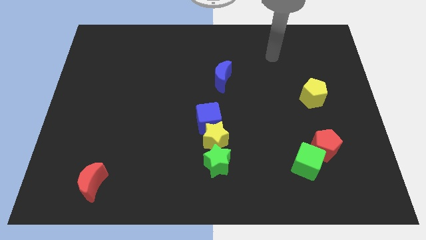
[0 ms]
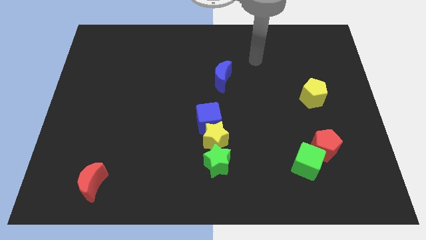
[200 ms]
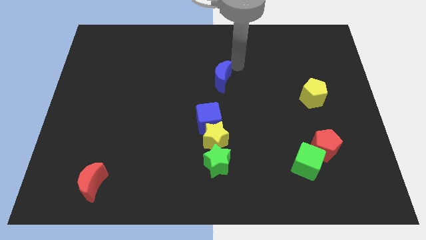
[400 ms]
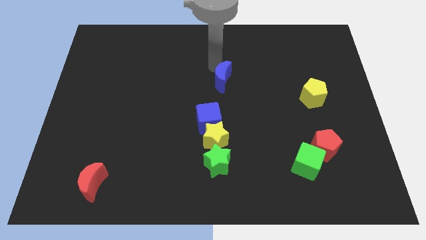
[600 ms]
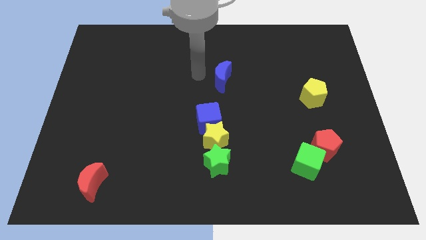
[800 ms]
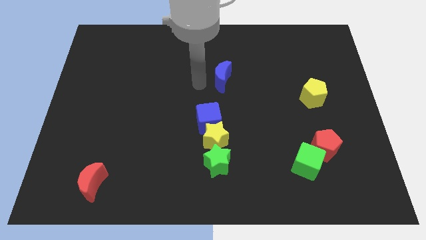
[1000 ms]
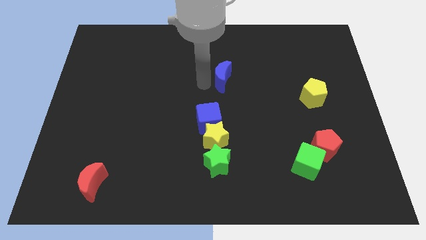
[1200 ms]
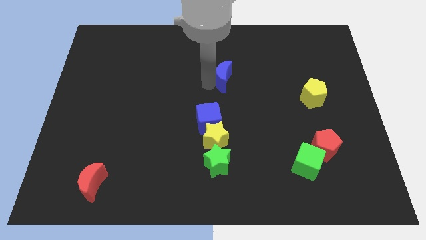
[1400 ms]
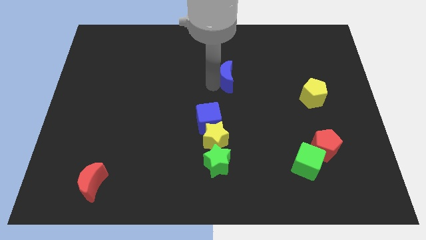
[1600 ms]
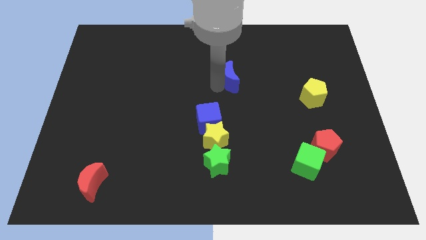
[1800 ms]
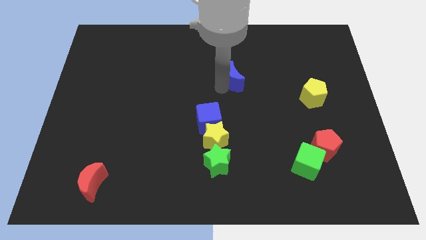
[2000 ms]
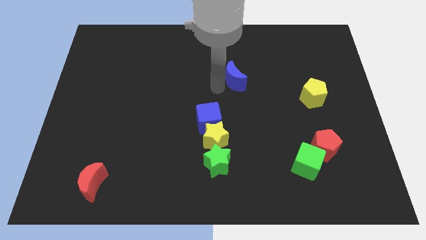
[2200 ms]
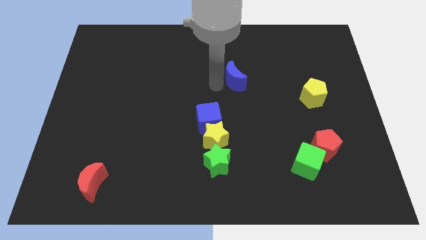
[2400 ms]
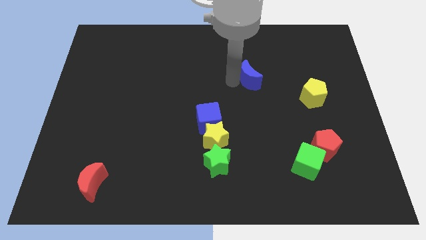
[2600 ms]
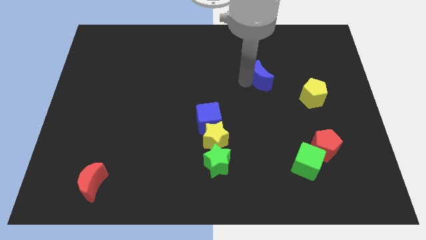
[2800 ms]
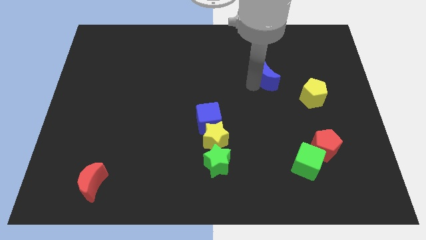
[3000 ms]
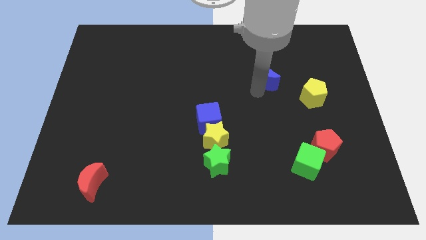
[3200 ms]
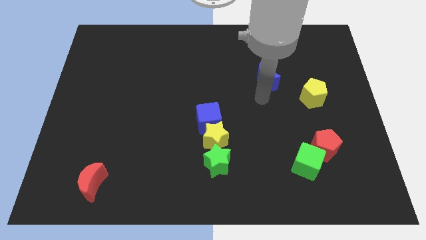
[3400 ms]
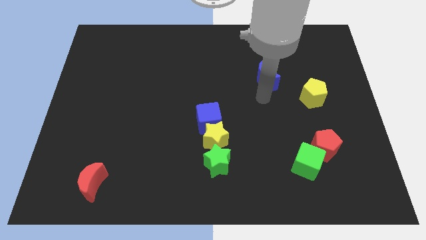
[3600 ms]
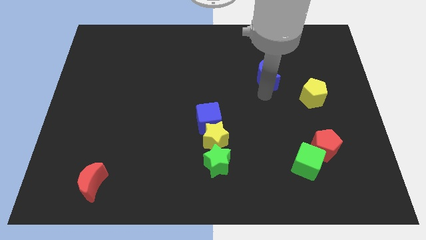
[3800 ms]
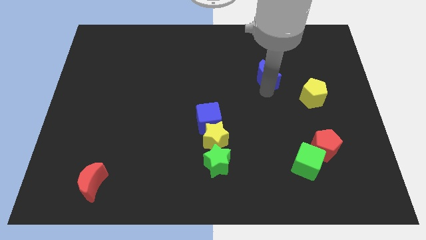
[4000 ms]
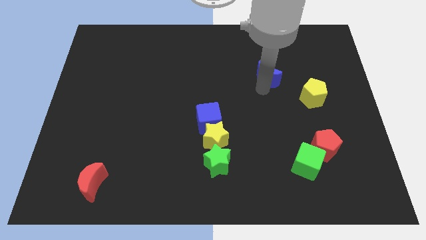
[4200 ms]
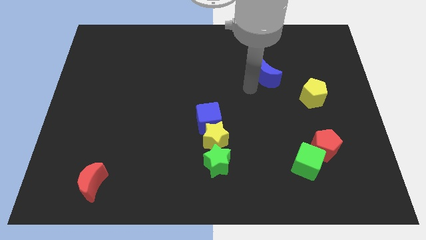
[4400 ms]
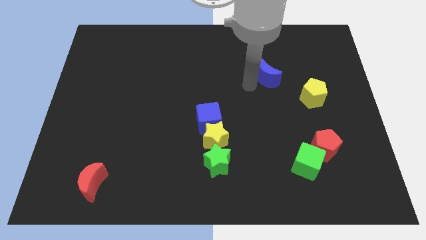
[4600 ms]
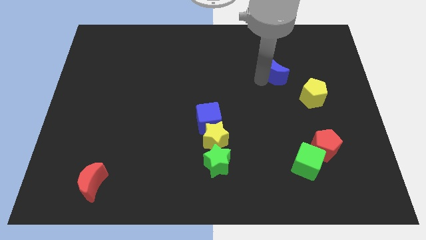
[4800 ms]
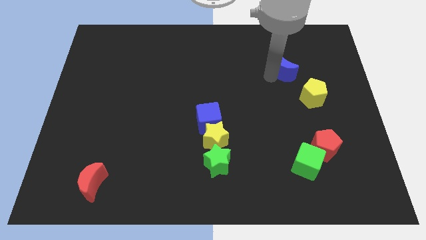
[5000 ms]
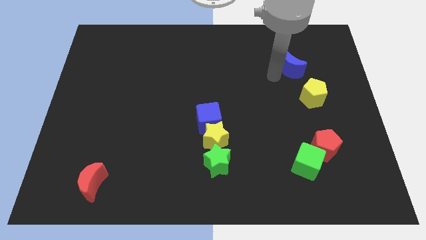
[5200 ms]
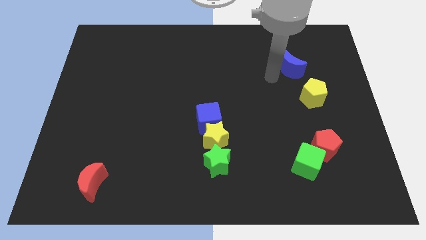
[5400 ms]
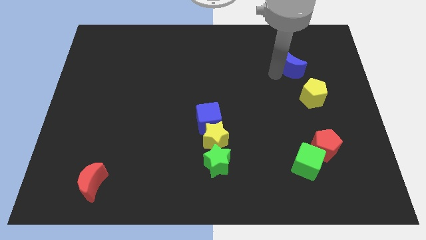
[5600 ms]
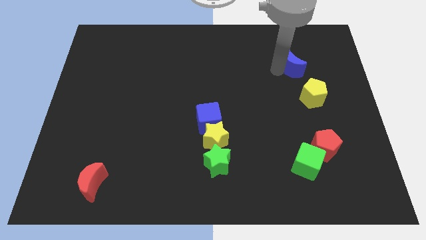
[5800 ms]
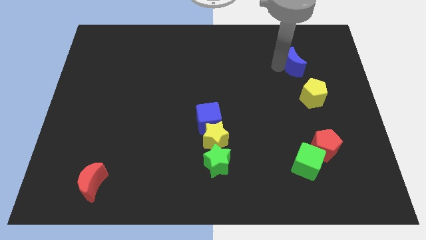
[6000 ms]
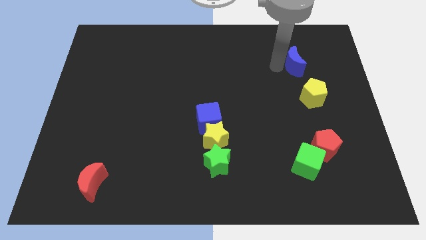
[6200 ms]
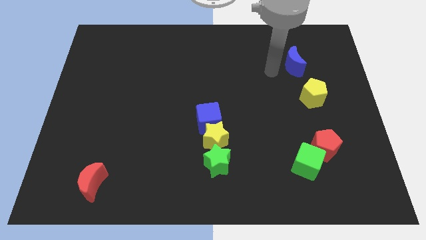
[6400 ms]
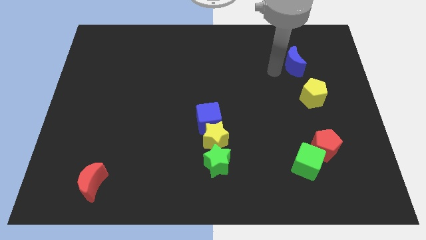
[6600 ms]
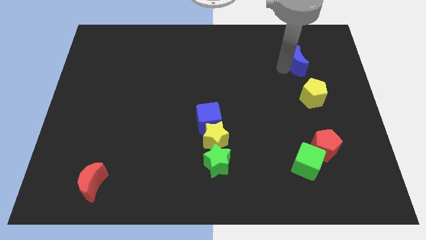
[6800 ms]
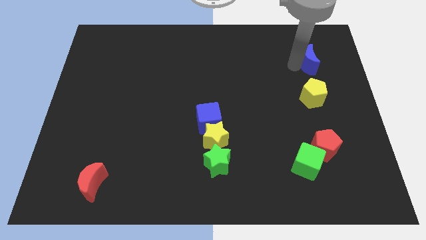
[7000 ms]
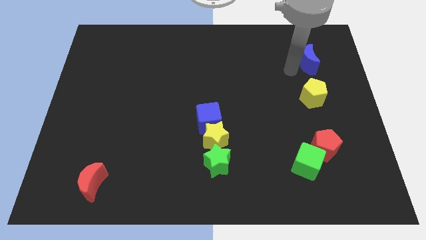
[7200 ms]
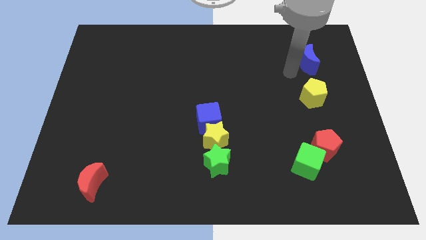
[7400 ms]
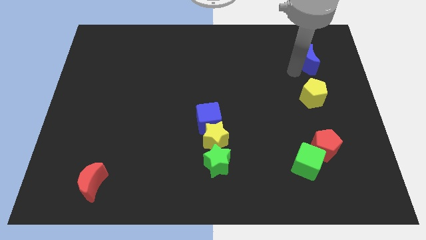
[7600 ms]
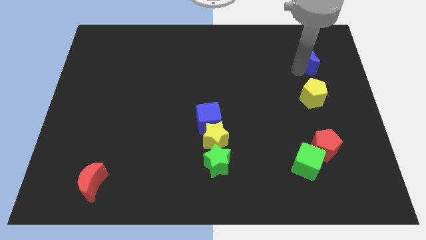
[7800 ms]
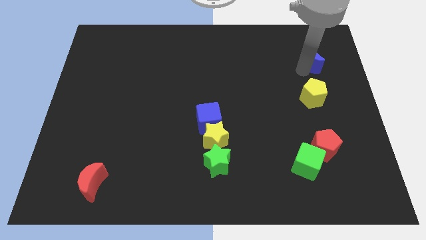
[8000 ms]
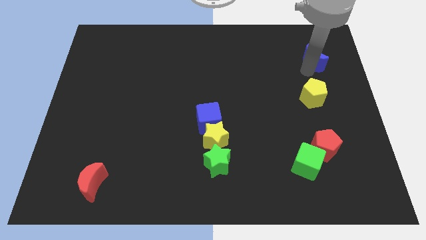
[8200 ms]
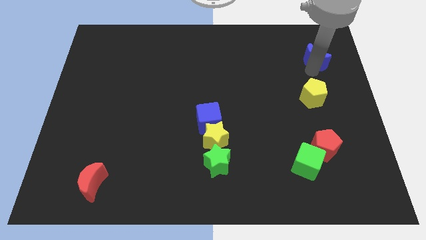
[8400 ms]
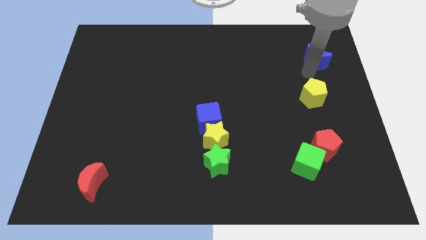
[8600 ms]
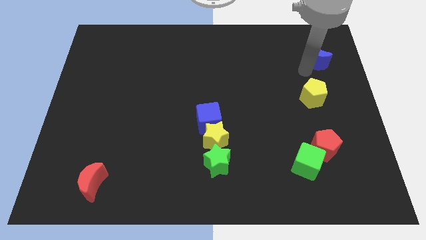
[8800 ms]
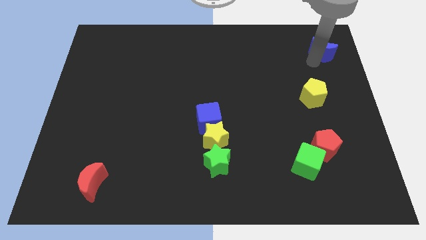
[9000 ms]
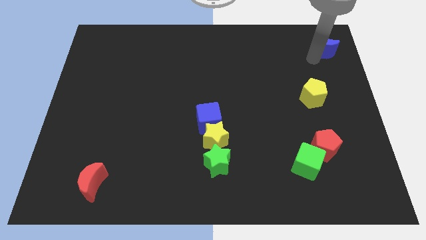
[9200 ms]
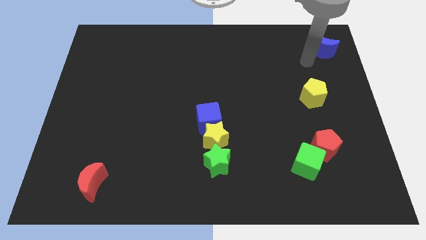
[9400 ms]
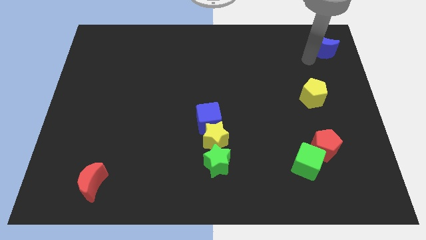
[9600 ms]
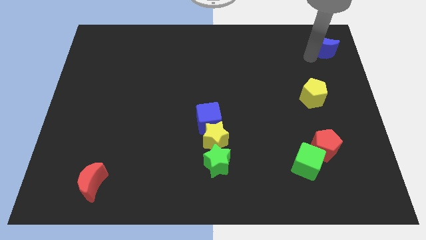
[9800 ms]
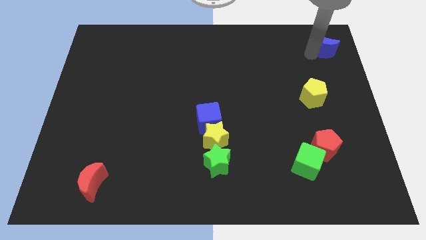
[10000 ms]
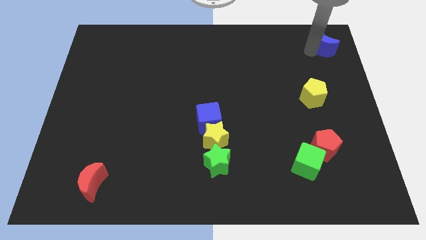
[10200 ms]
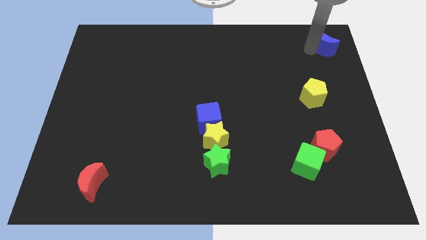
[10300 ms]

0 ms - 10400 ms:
move the blue moon to the top right corner

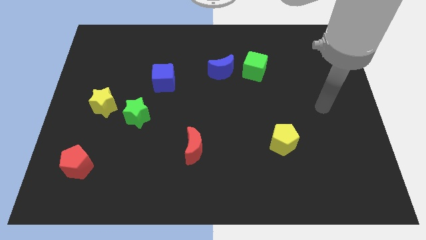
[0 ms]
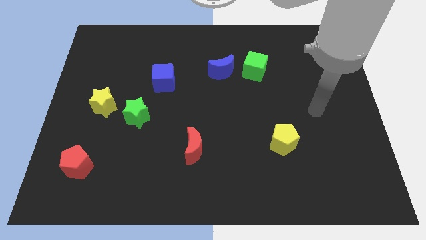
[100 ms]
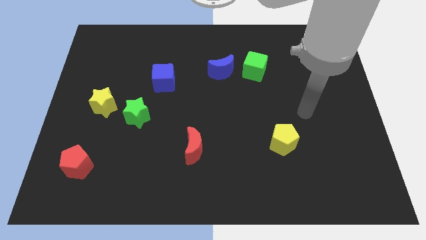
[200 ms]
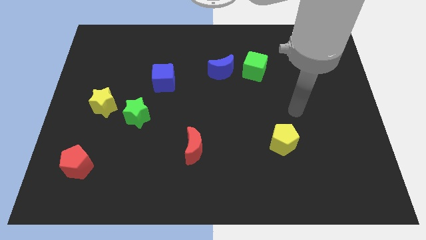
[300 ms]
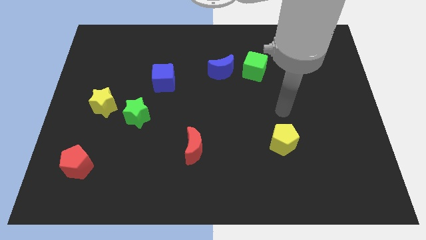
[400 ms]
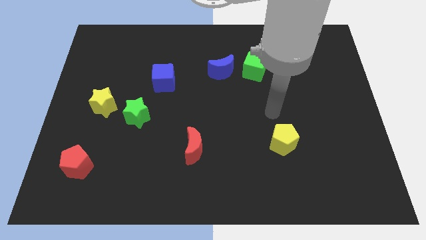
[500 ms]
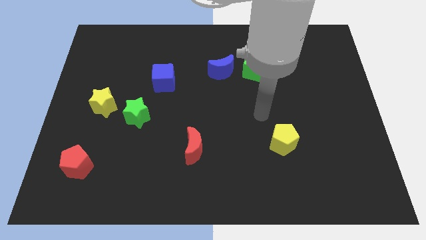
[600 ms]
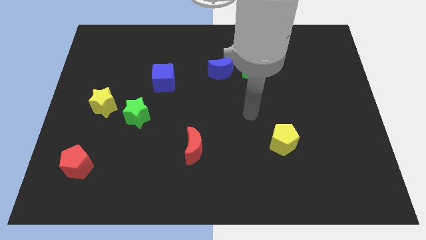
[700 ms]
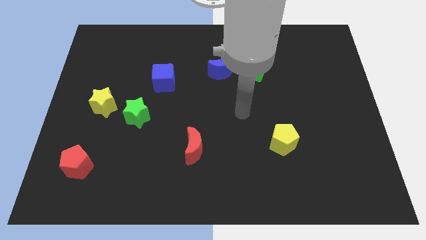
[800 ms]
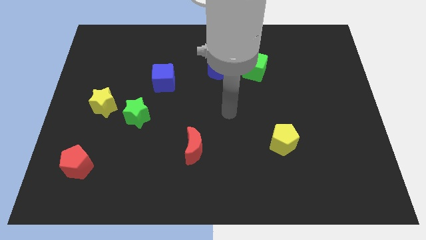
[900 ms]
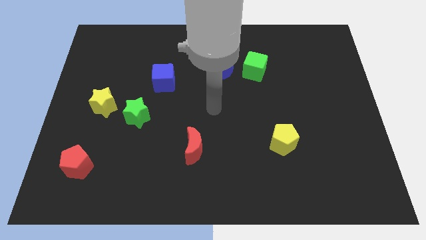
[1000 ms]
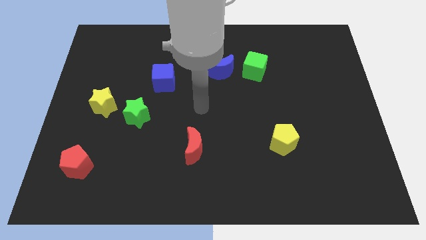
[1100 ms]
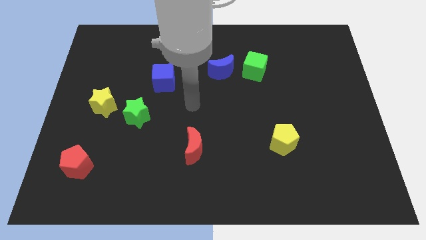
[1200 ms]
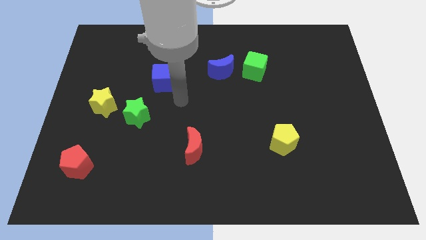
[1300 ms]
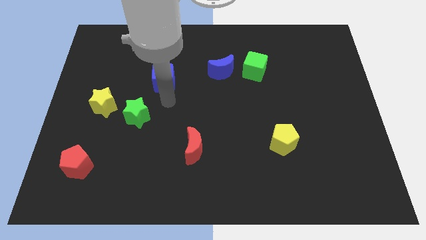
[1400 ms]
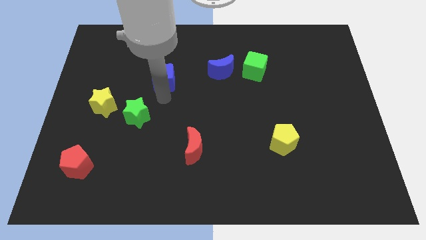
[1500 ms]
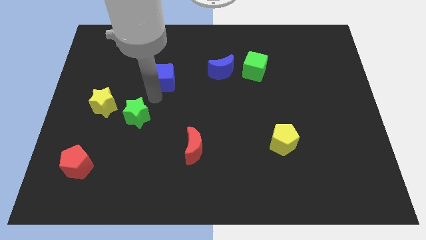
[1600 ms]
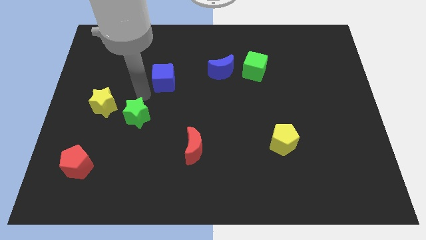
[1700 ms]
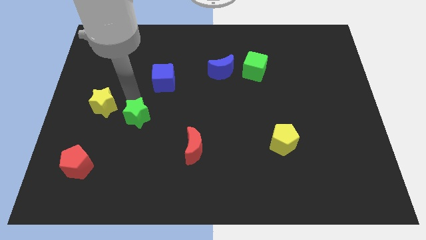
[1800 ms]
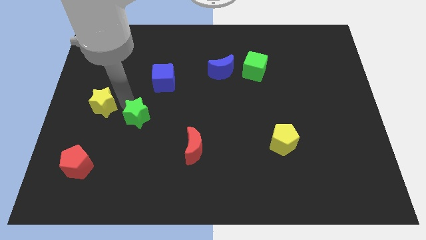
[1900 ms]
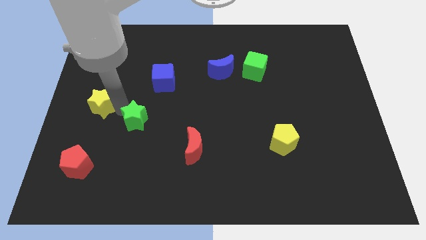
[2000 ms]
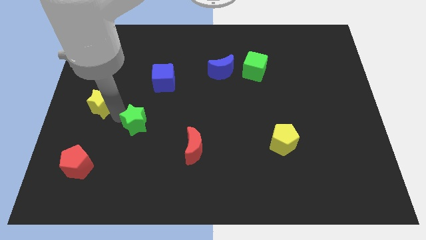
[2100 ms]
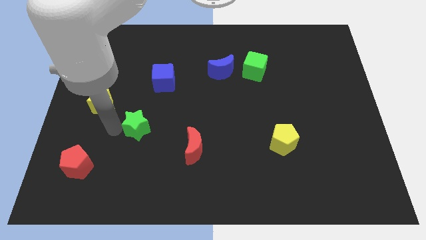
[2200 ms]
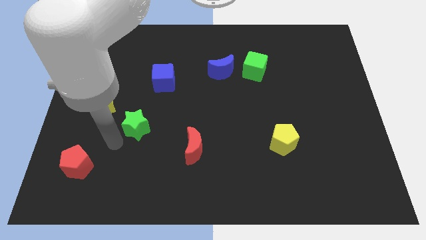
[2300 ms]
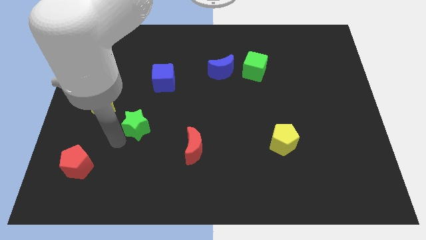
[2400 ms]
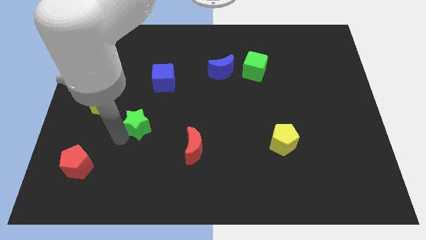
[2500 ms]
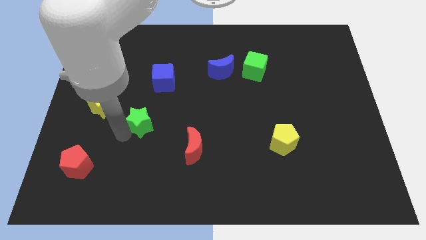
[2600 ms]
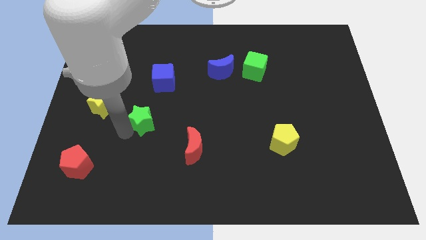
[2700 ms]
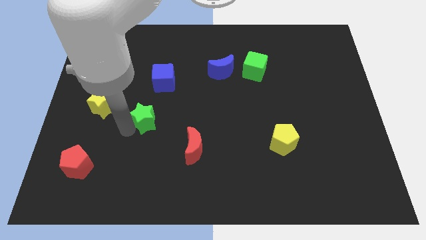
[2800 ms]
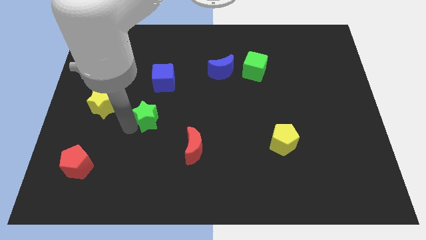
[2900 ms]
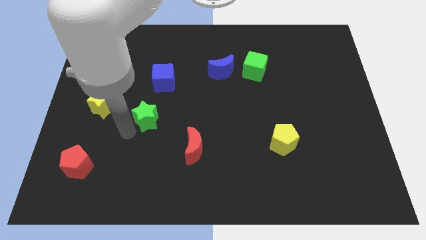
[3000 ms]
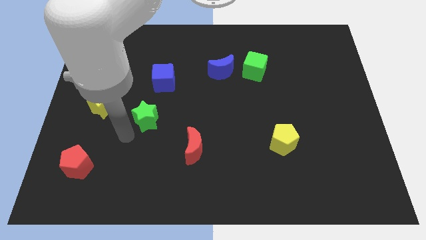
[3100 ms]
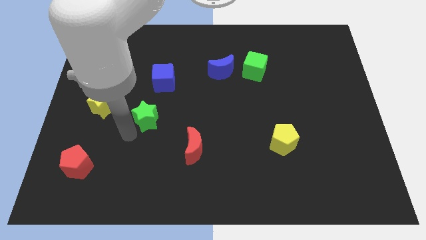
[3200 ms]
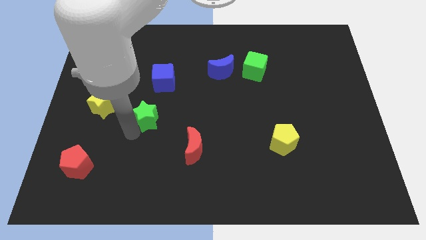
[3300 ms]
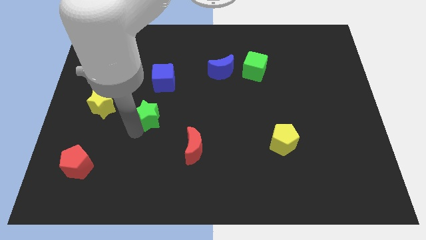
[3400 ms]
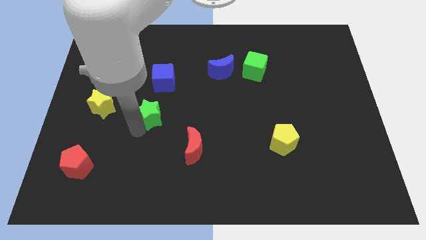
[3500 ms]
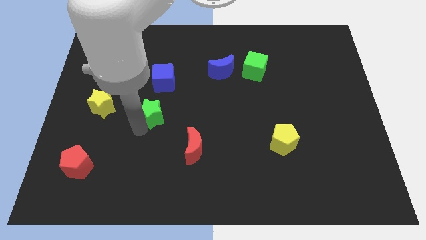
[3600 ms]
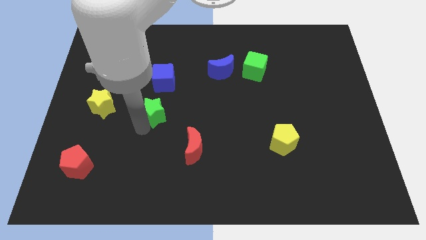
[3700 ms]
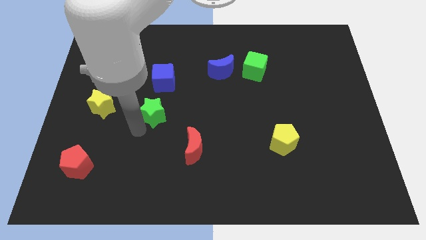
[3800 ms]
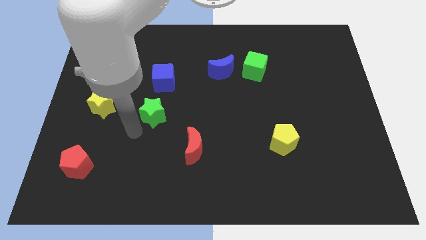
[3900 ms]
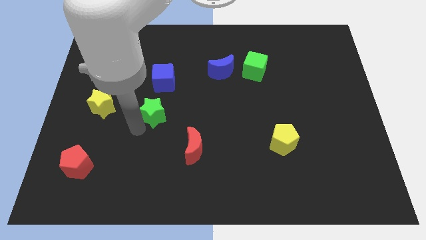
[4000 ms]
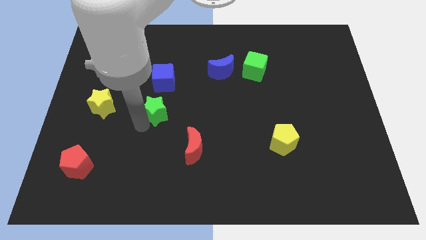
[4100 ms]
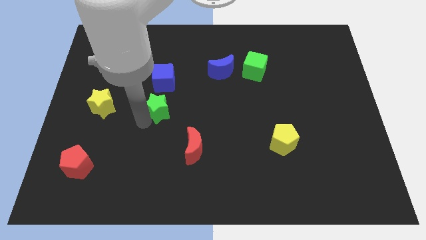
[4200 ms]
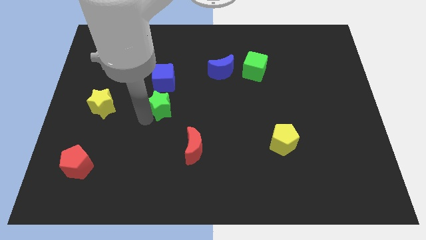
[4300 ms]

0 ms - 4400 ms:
slide the green star to the center
